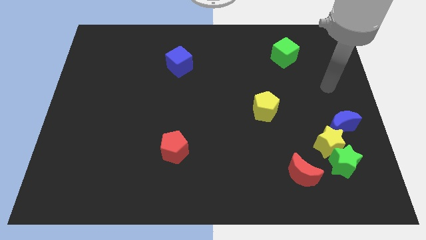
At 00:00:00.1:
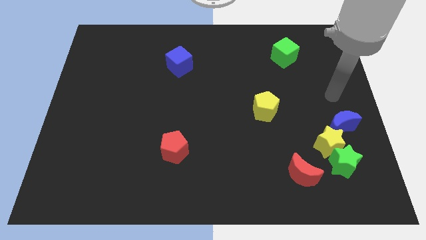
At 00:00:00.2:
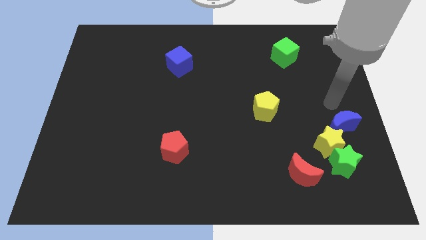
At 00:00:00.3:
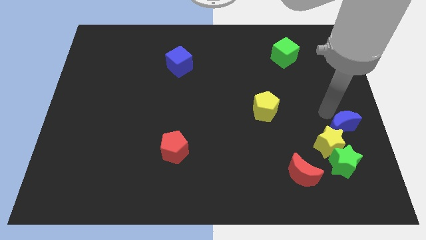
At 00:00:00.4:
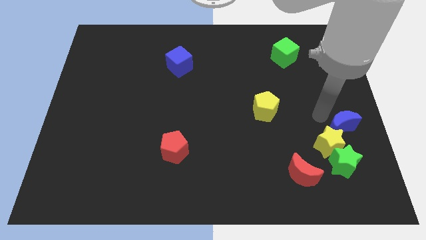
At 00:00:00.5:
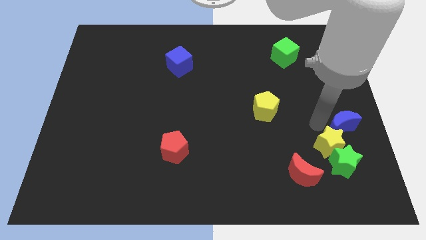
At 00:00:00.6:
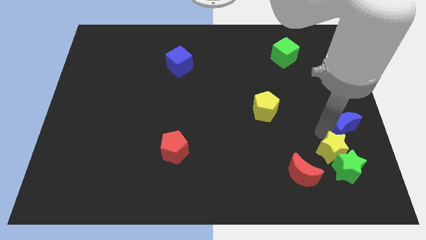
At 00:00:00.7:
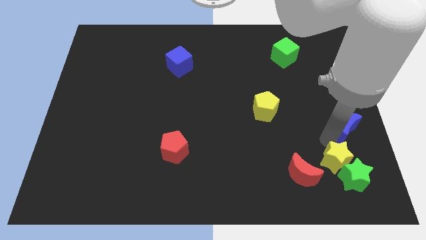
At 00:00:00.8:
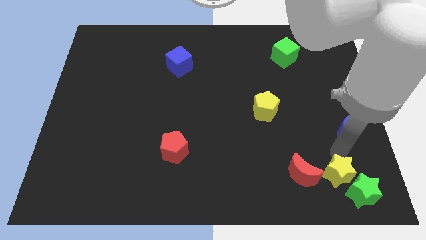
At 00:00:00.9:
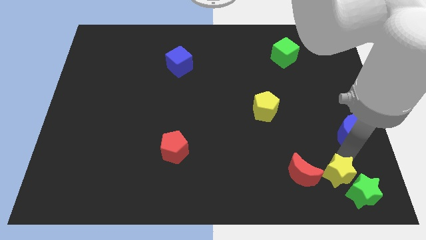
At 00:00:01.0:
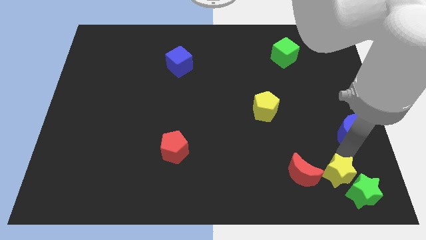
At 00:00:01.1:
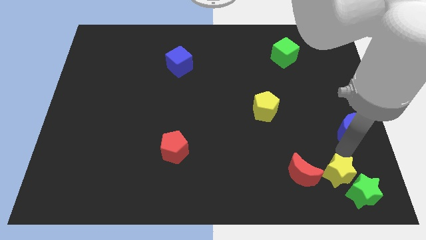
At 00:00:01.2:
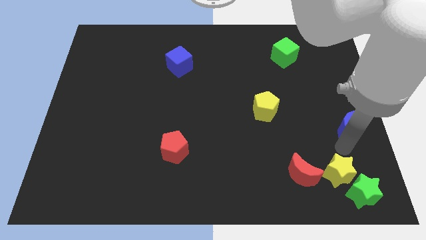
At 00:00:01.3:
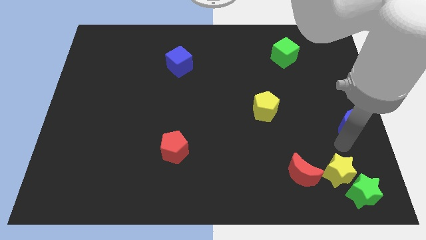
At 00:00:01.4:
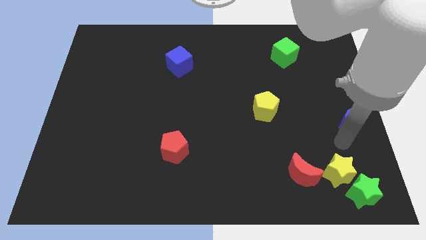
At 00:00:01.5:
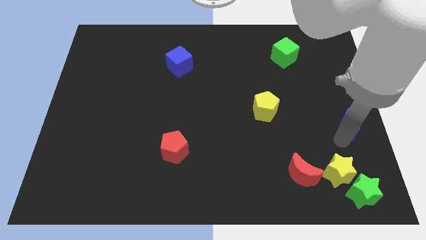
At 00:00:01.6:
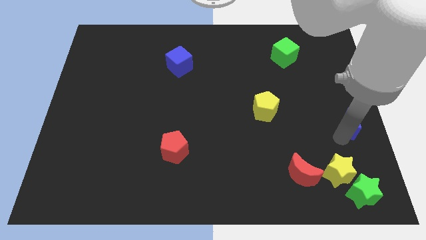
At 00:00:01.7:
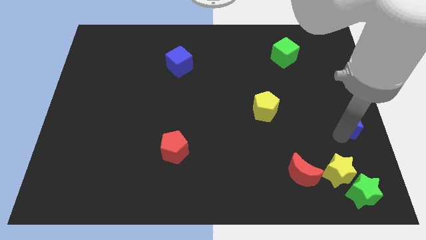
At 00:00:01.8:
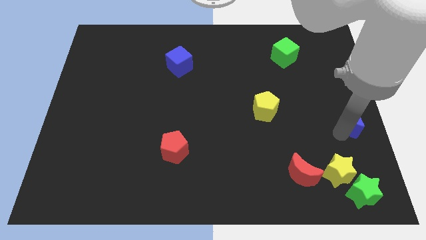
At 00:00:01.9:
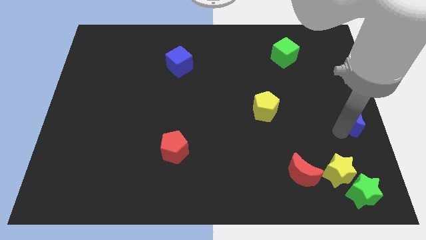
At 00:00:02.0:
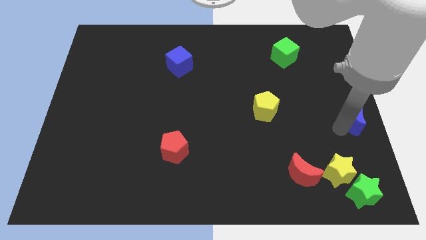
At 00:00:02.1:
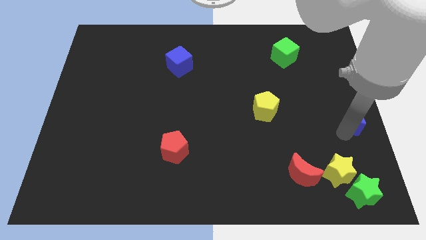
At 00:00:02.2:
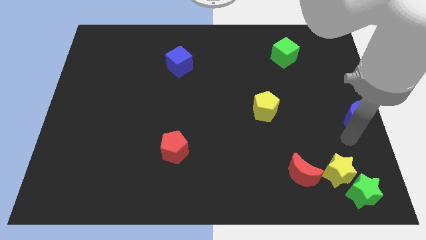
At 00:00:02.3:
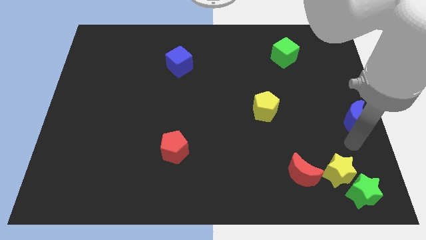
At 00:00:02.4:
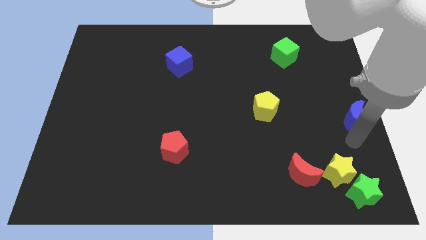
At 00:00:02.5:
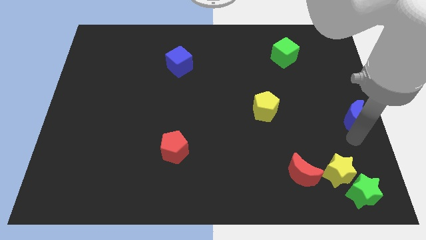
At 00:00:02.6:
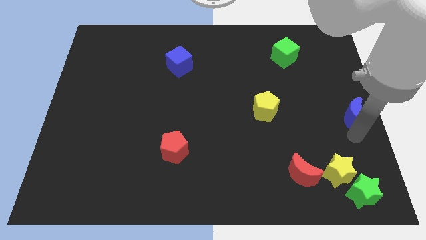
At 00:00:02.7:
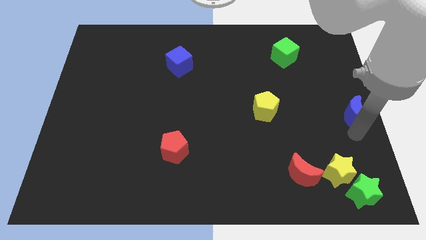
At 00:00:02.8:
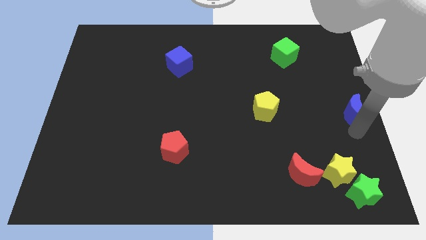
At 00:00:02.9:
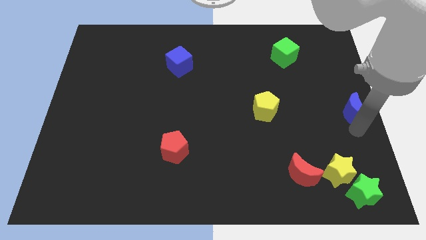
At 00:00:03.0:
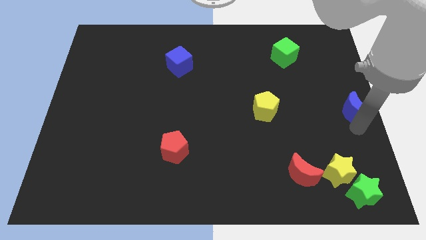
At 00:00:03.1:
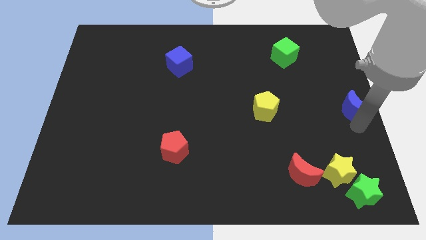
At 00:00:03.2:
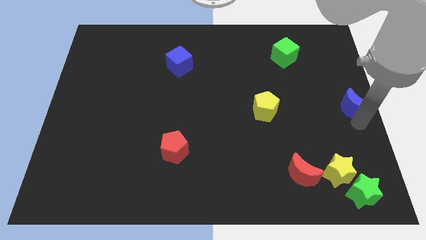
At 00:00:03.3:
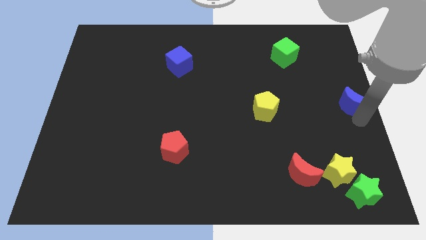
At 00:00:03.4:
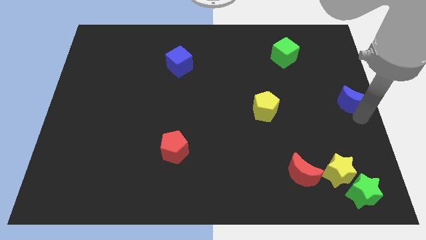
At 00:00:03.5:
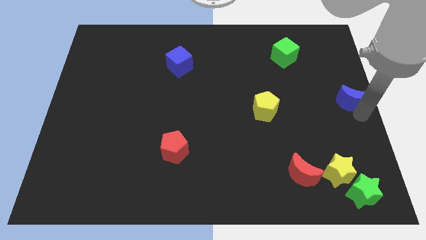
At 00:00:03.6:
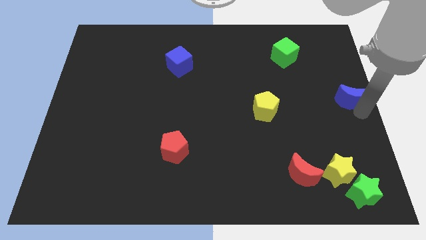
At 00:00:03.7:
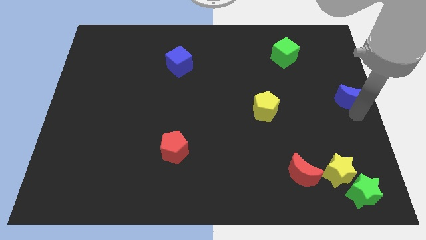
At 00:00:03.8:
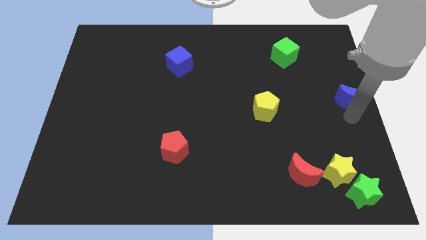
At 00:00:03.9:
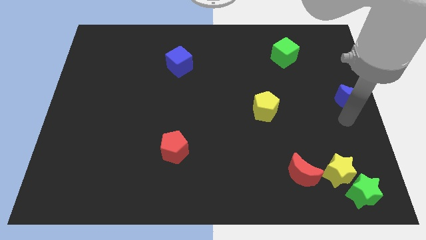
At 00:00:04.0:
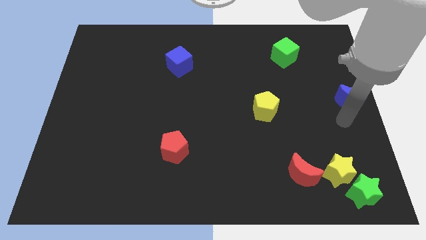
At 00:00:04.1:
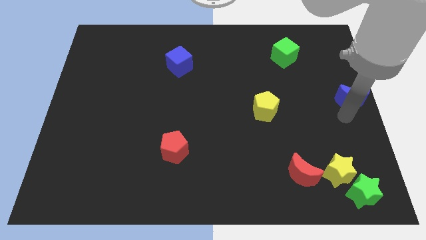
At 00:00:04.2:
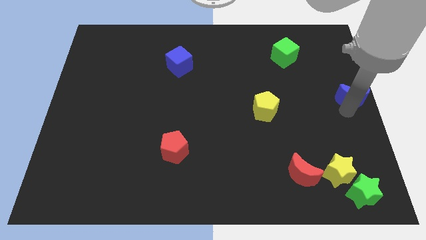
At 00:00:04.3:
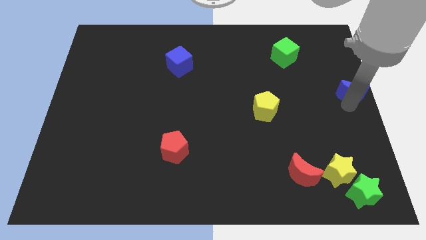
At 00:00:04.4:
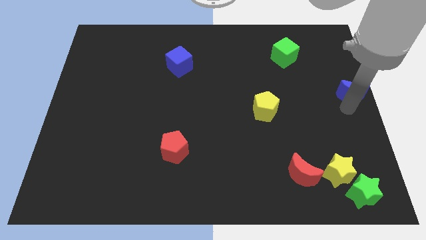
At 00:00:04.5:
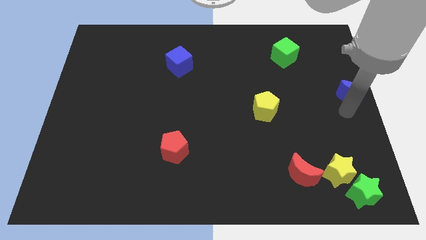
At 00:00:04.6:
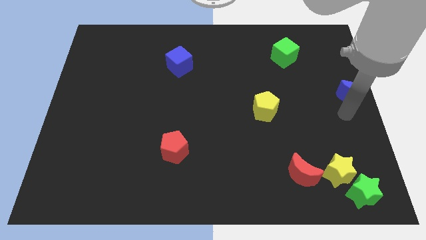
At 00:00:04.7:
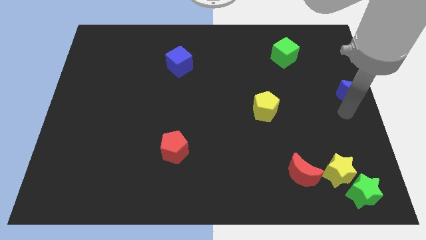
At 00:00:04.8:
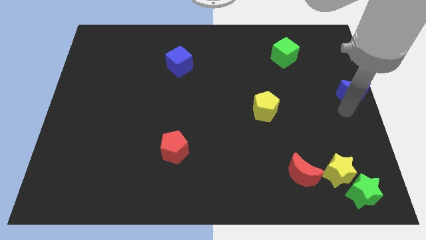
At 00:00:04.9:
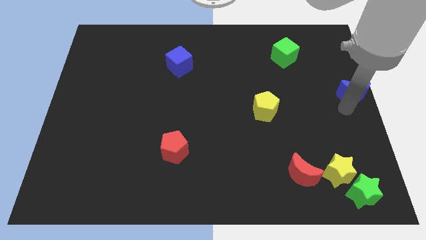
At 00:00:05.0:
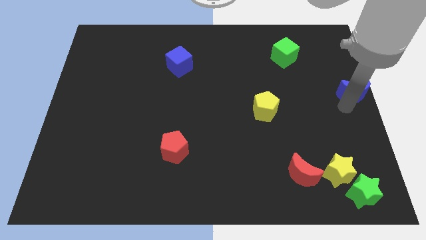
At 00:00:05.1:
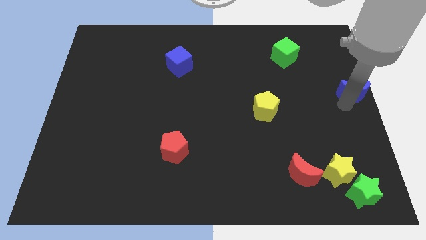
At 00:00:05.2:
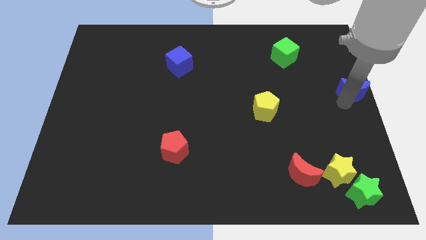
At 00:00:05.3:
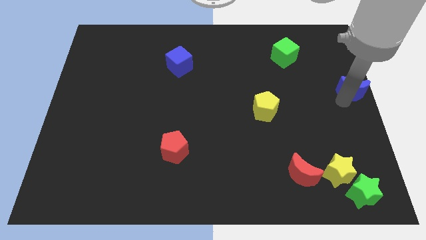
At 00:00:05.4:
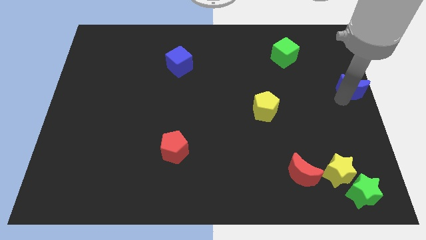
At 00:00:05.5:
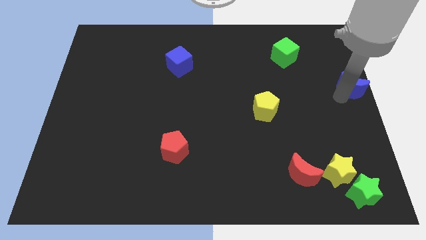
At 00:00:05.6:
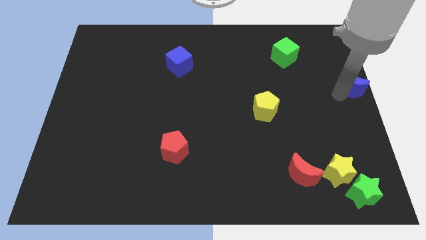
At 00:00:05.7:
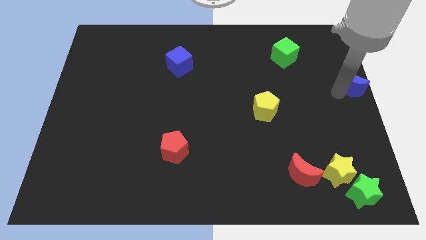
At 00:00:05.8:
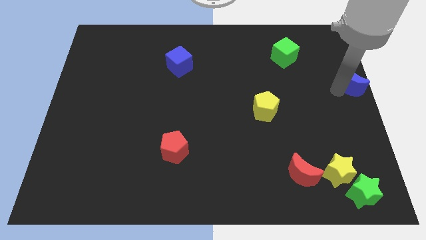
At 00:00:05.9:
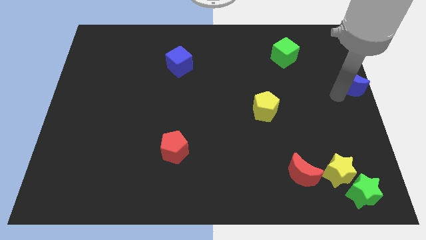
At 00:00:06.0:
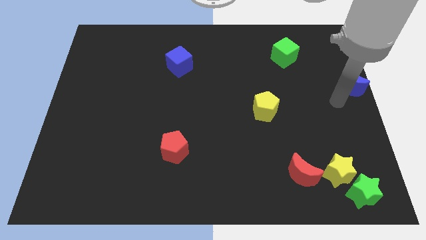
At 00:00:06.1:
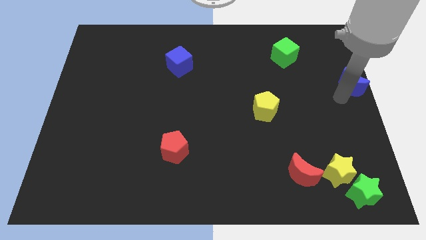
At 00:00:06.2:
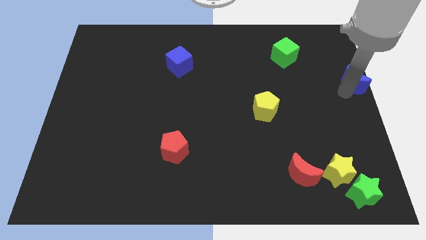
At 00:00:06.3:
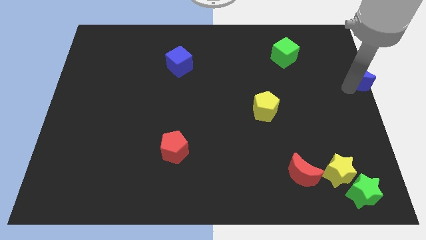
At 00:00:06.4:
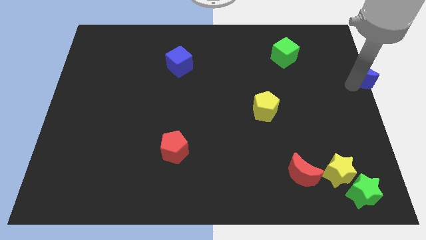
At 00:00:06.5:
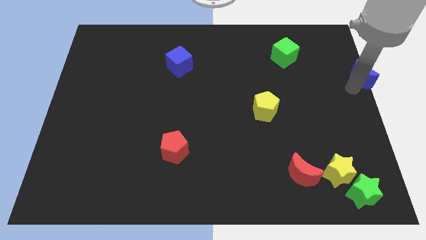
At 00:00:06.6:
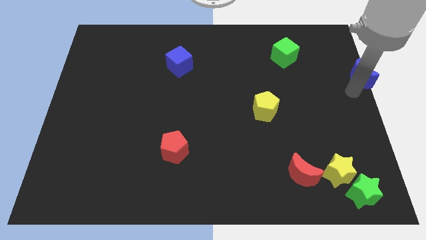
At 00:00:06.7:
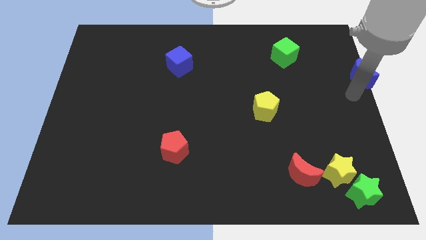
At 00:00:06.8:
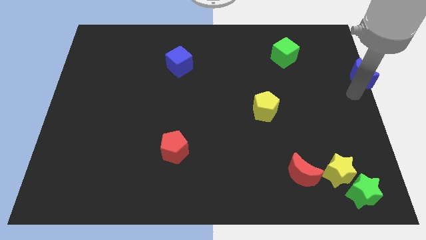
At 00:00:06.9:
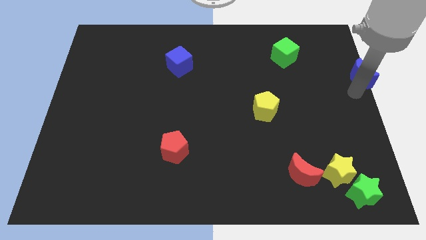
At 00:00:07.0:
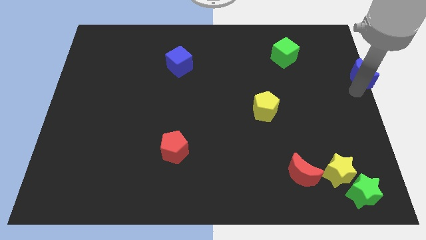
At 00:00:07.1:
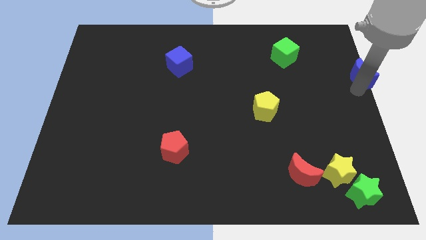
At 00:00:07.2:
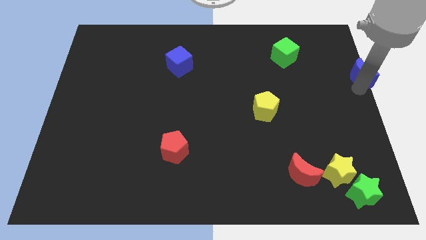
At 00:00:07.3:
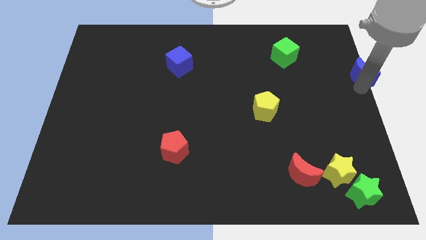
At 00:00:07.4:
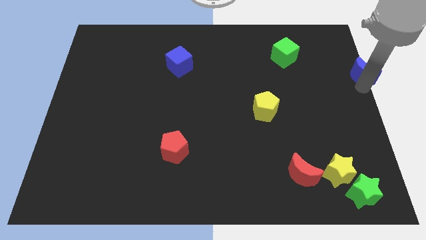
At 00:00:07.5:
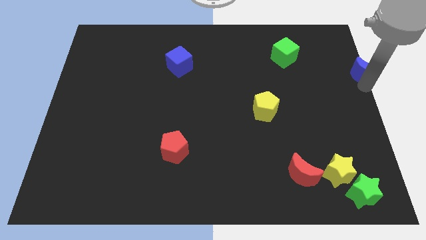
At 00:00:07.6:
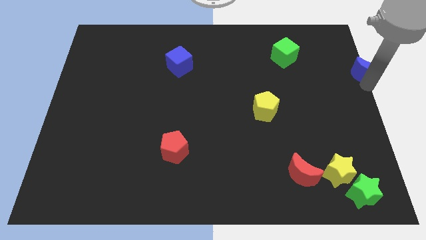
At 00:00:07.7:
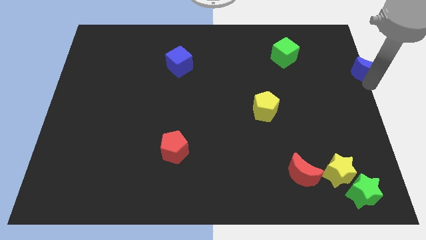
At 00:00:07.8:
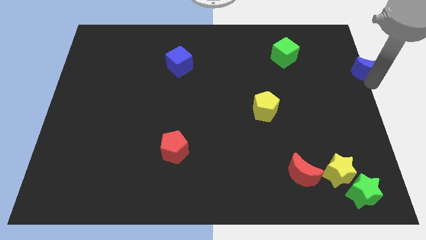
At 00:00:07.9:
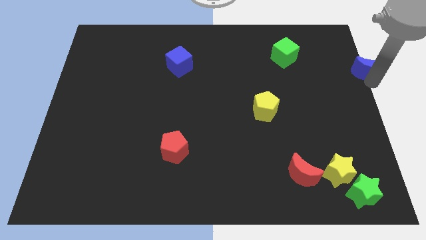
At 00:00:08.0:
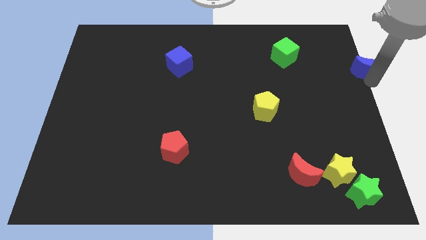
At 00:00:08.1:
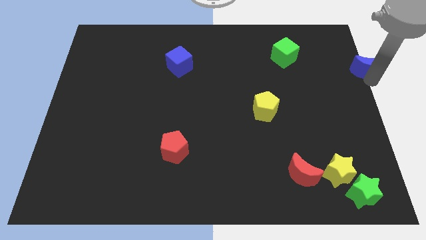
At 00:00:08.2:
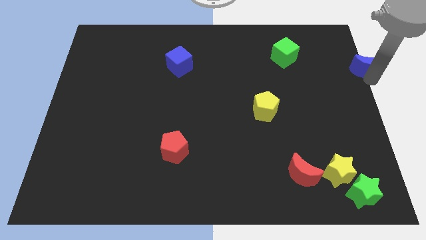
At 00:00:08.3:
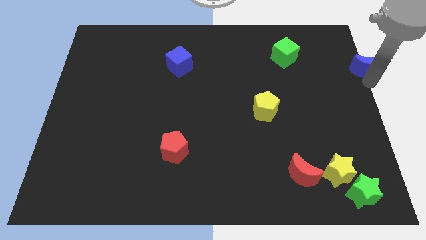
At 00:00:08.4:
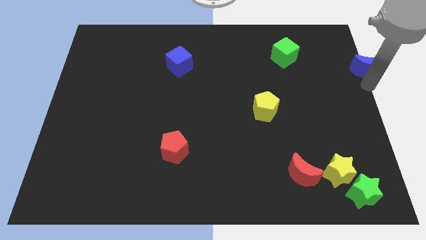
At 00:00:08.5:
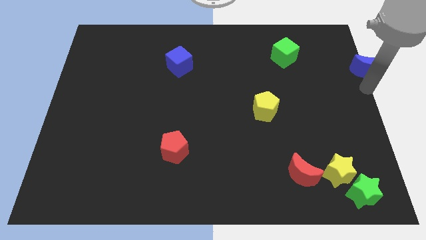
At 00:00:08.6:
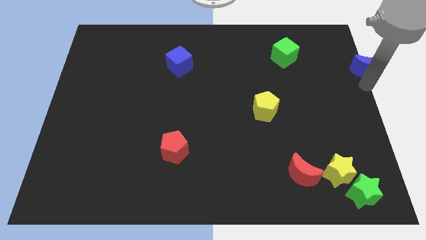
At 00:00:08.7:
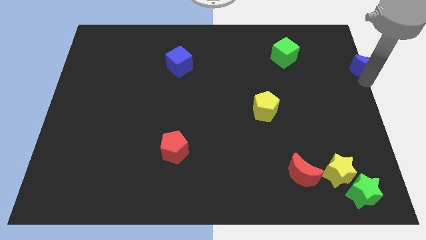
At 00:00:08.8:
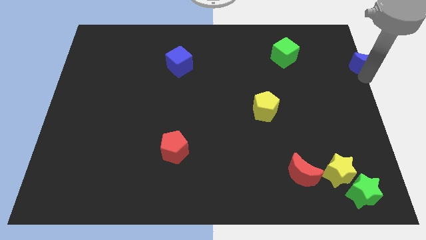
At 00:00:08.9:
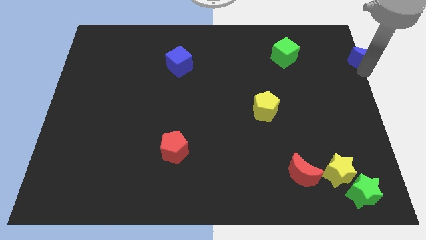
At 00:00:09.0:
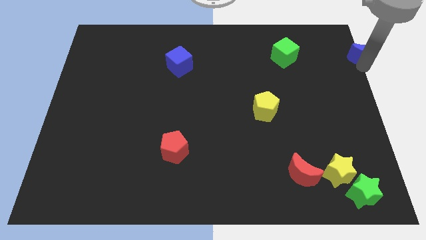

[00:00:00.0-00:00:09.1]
move the blue moon to the upper right corner
